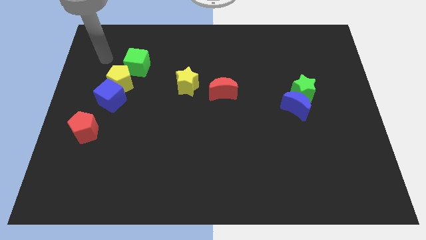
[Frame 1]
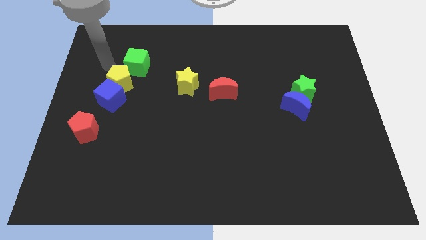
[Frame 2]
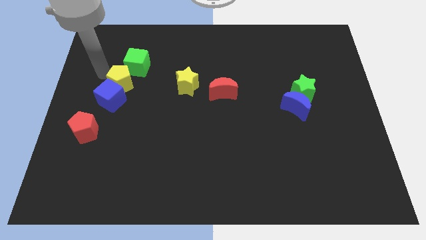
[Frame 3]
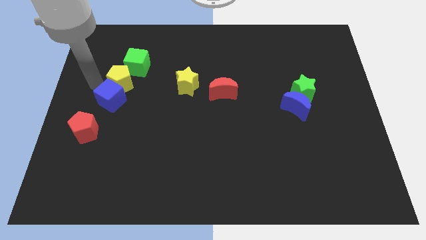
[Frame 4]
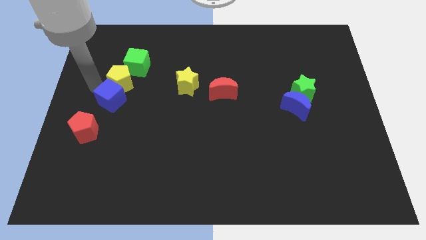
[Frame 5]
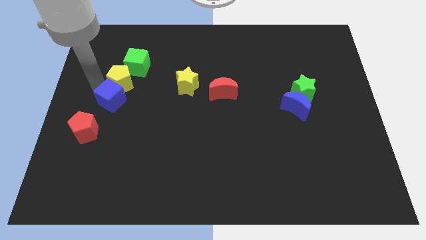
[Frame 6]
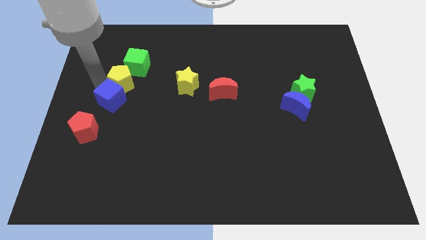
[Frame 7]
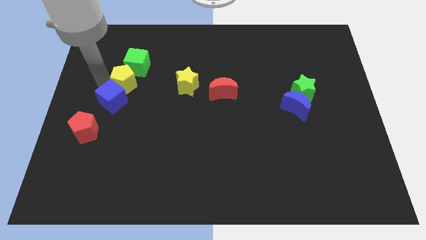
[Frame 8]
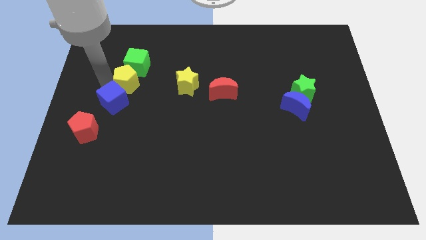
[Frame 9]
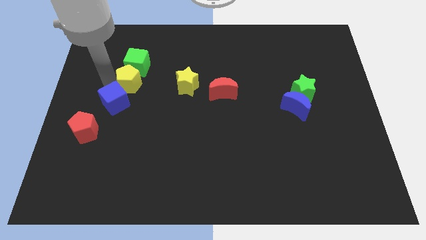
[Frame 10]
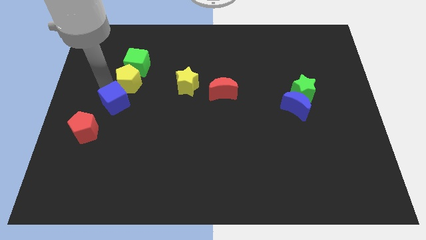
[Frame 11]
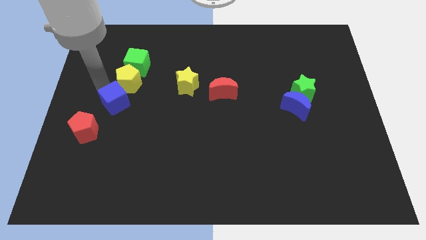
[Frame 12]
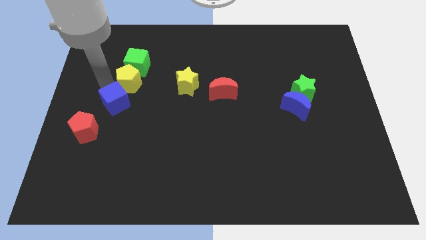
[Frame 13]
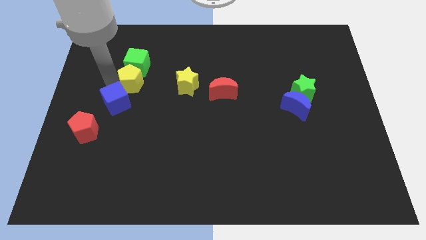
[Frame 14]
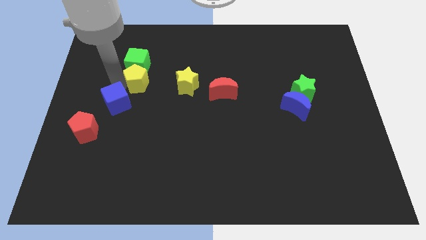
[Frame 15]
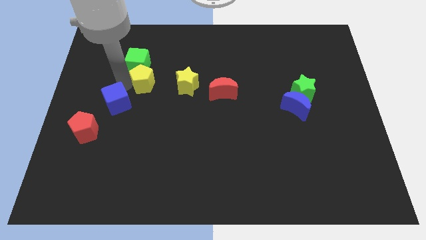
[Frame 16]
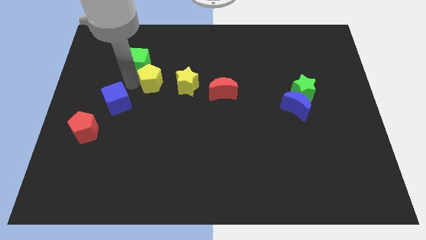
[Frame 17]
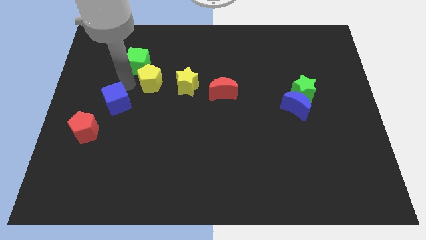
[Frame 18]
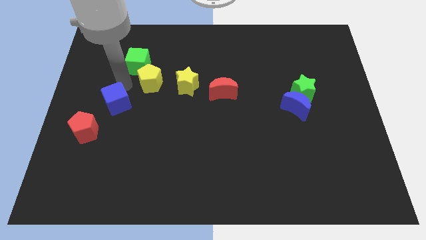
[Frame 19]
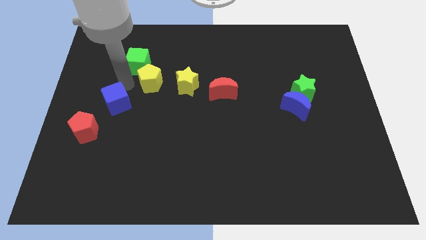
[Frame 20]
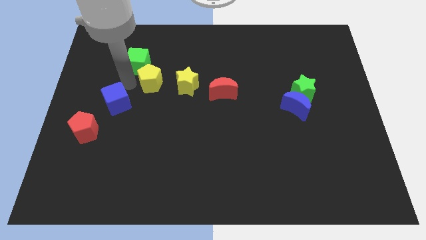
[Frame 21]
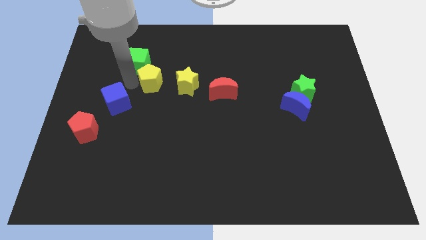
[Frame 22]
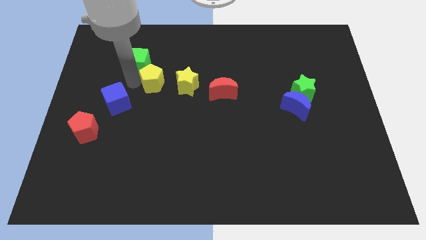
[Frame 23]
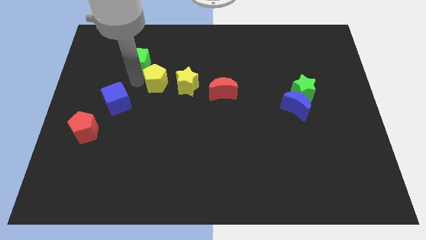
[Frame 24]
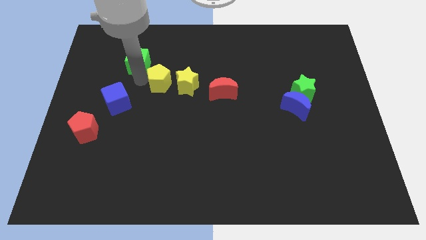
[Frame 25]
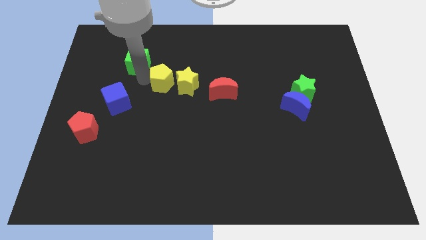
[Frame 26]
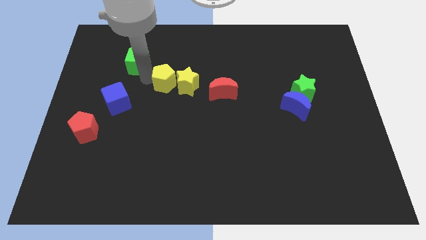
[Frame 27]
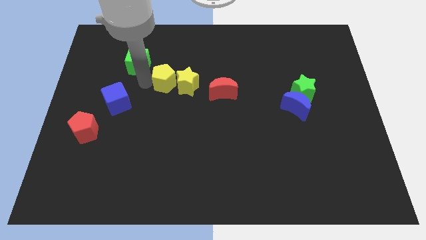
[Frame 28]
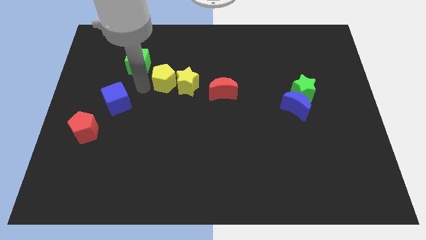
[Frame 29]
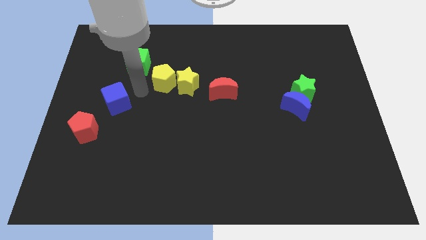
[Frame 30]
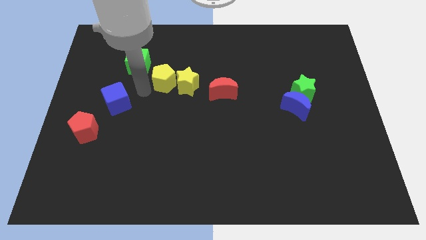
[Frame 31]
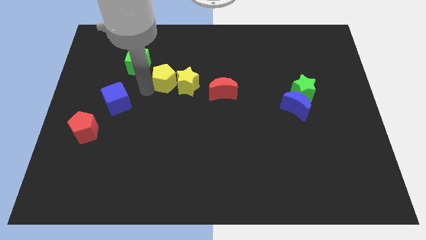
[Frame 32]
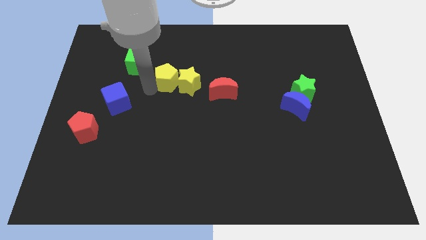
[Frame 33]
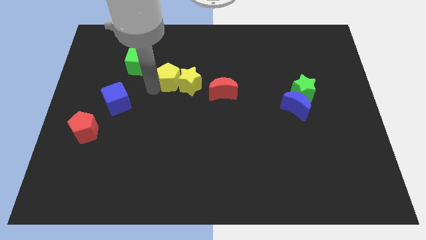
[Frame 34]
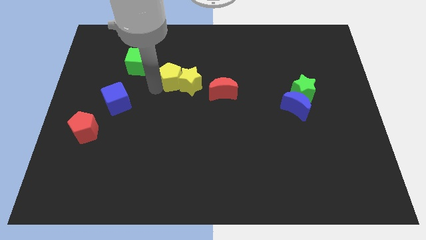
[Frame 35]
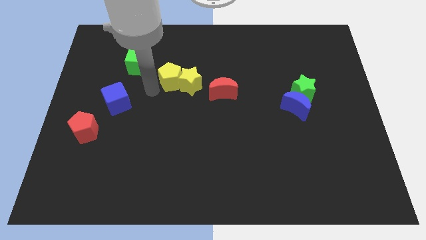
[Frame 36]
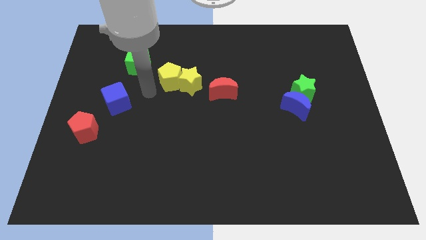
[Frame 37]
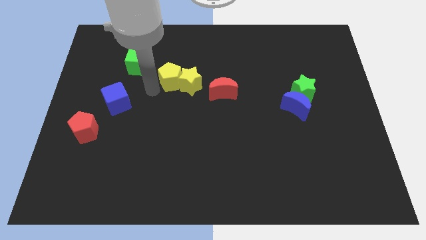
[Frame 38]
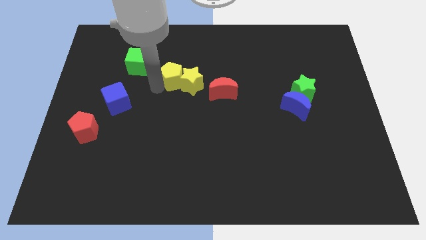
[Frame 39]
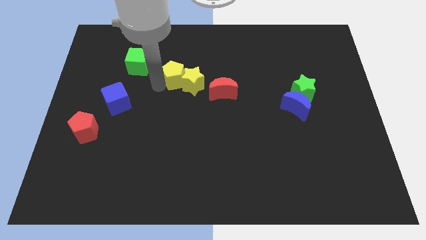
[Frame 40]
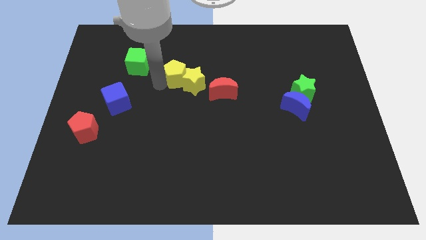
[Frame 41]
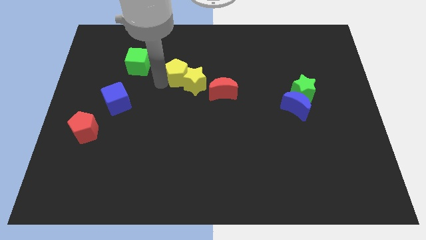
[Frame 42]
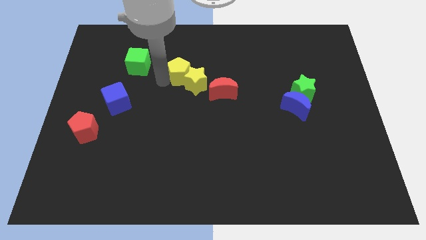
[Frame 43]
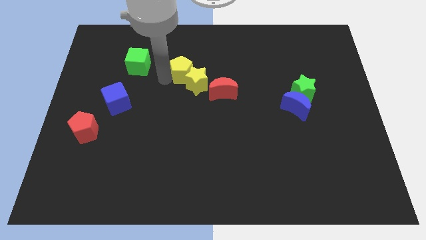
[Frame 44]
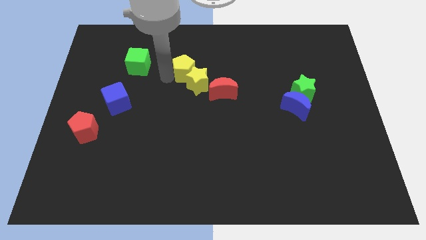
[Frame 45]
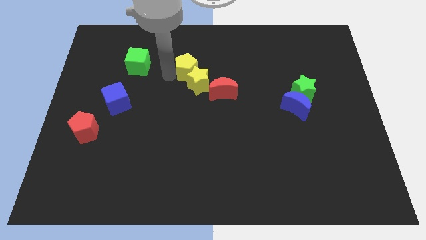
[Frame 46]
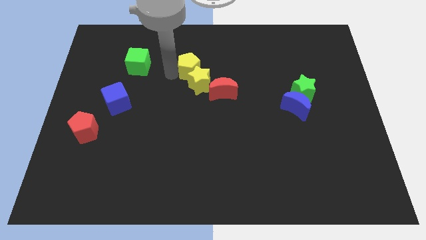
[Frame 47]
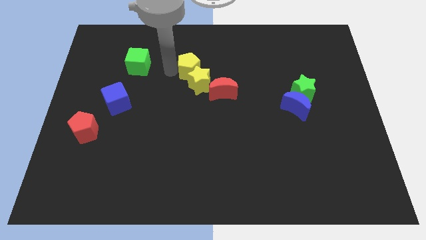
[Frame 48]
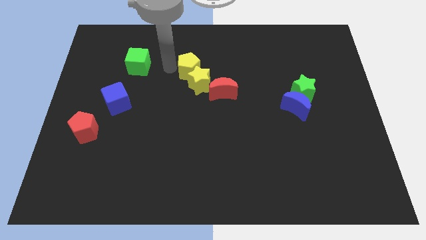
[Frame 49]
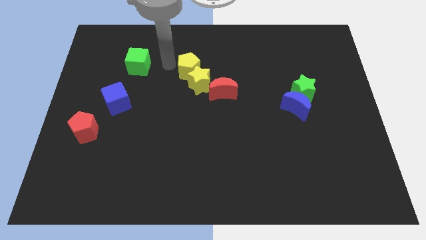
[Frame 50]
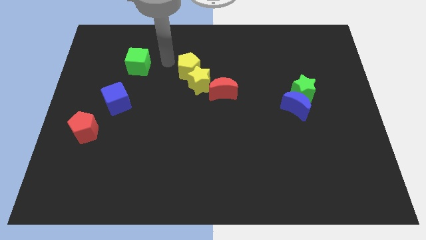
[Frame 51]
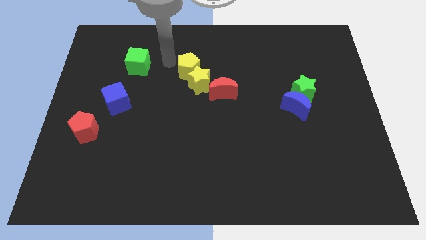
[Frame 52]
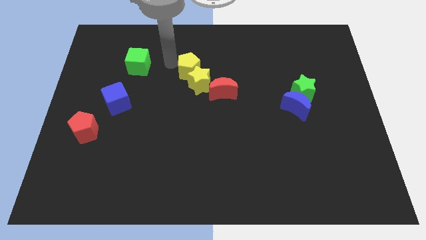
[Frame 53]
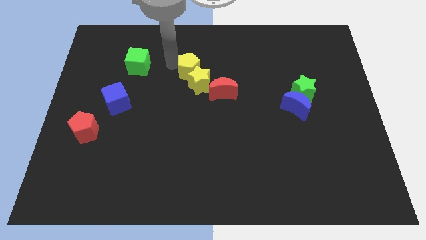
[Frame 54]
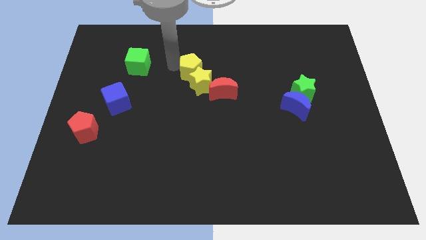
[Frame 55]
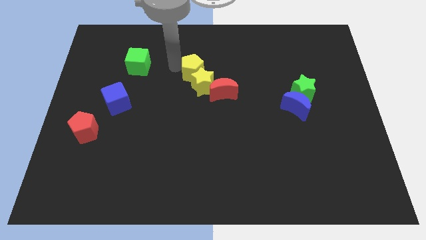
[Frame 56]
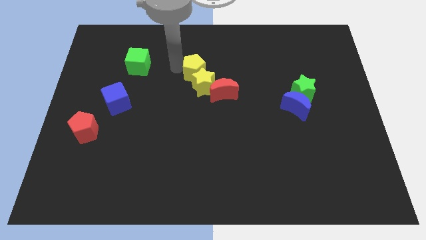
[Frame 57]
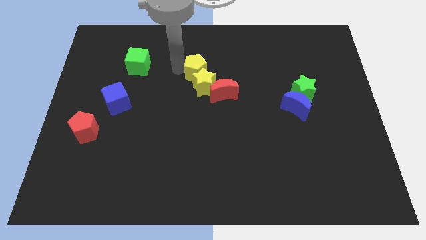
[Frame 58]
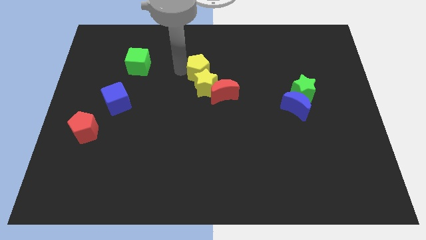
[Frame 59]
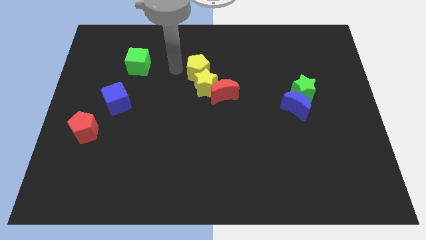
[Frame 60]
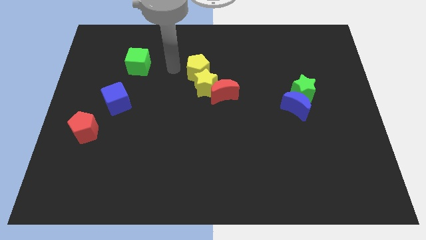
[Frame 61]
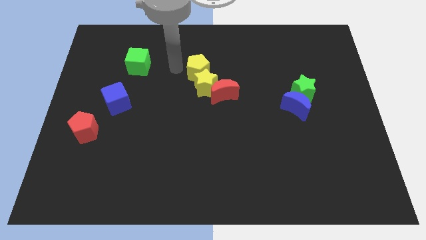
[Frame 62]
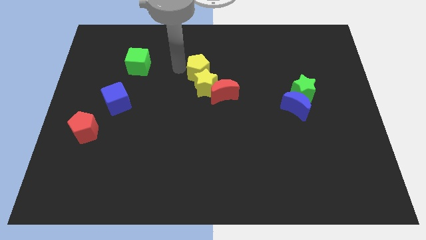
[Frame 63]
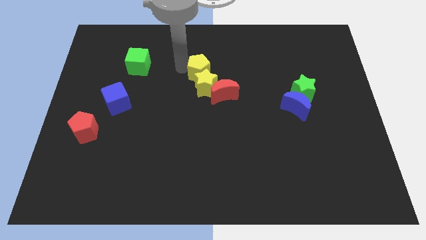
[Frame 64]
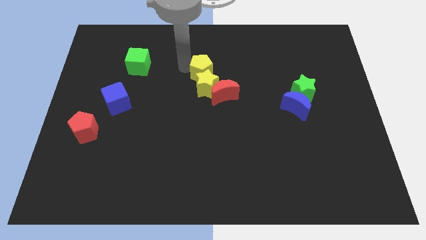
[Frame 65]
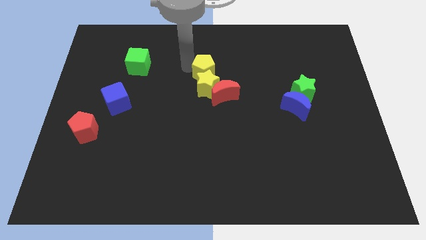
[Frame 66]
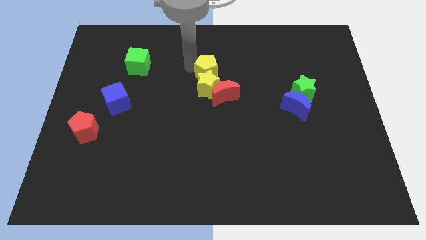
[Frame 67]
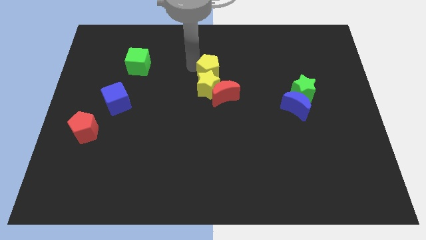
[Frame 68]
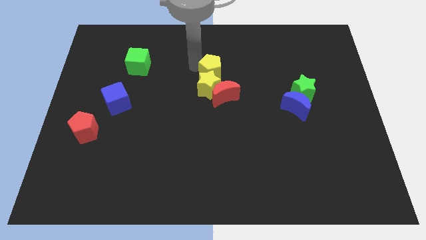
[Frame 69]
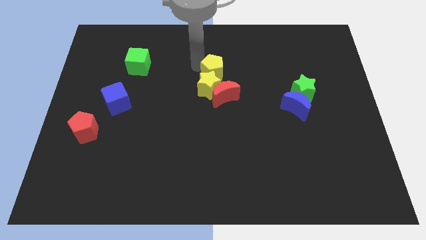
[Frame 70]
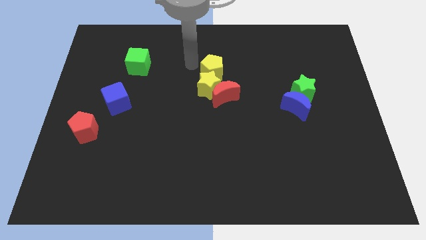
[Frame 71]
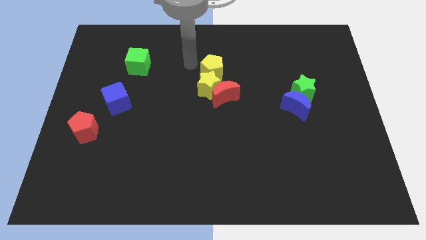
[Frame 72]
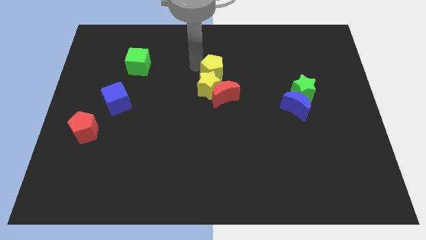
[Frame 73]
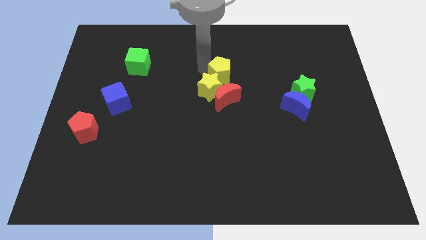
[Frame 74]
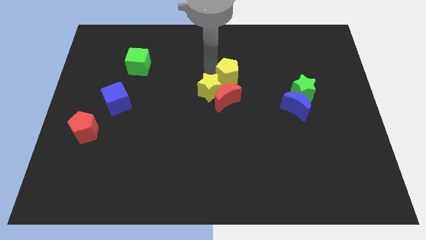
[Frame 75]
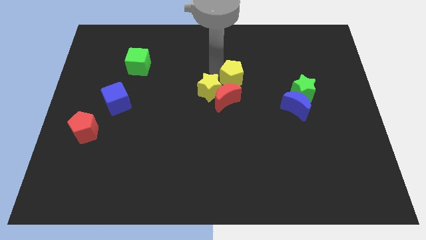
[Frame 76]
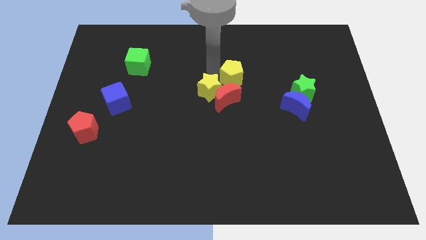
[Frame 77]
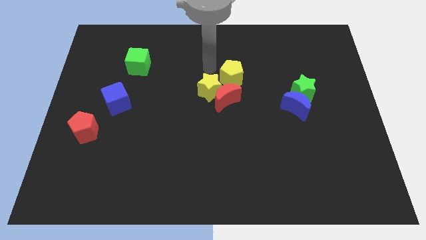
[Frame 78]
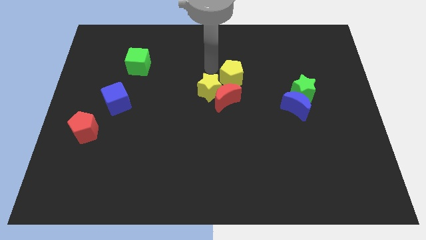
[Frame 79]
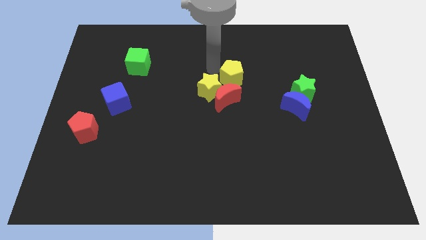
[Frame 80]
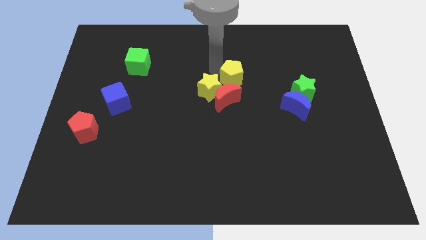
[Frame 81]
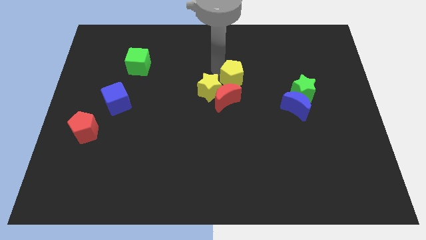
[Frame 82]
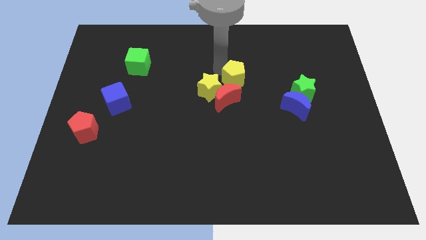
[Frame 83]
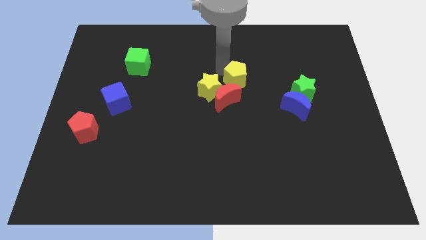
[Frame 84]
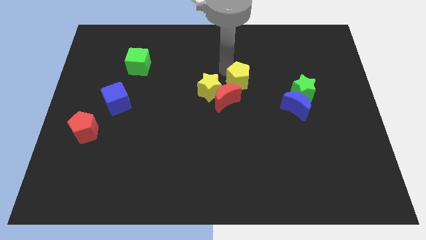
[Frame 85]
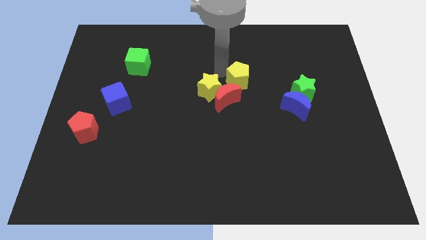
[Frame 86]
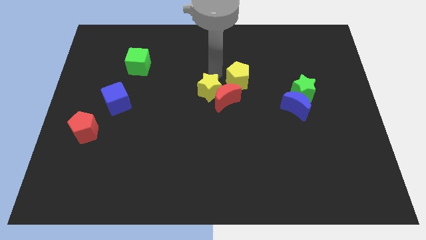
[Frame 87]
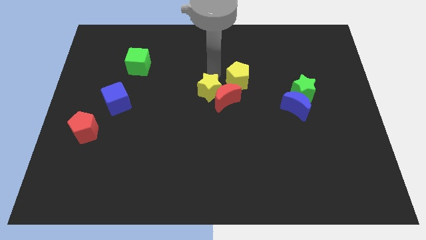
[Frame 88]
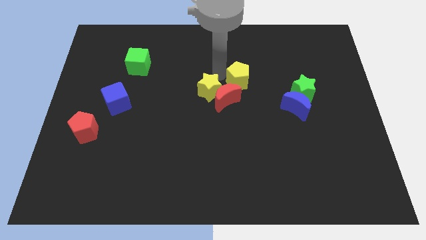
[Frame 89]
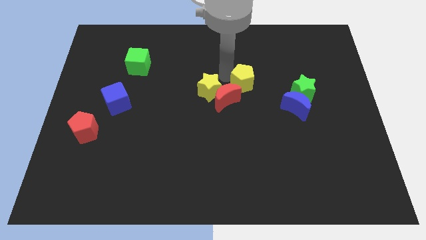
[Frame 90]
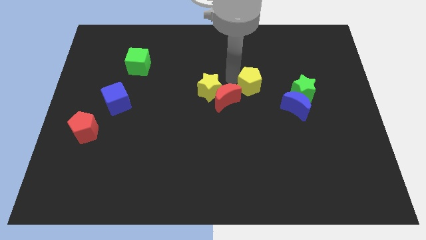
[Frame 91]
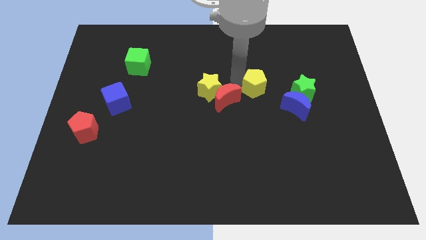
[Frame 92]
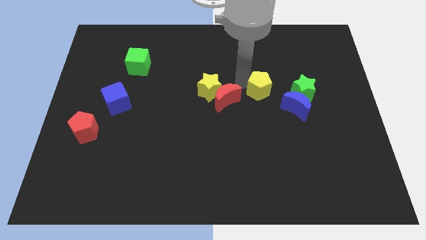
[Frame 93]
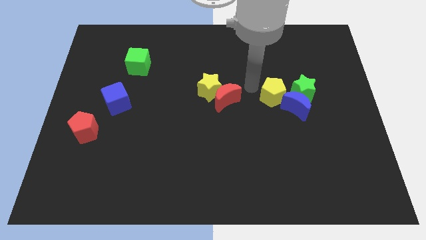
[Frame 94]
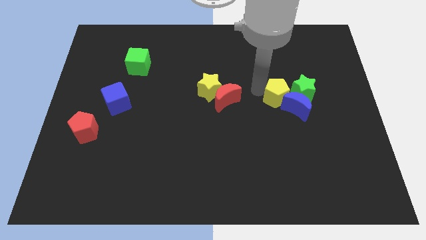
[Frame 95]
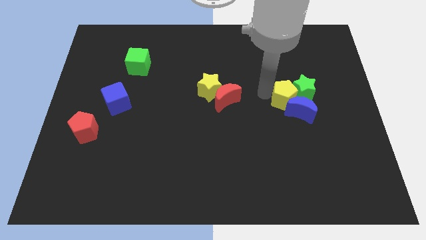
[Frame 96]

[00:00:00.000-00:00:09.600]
push the yellow pentagon next to the green star
